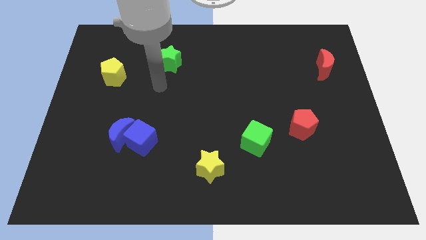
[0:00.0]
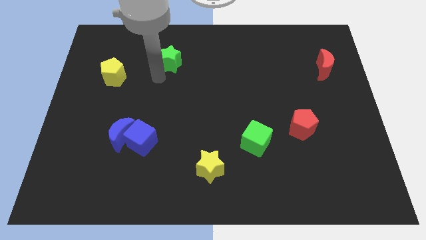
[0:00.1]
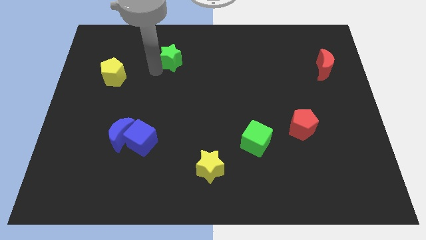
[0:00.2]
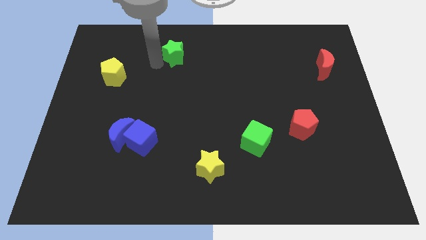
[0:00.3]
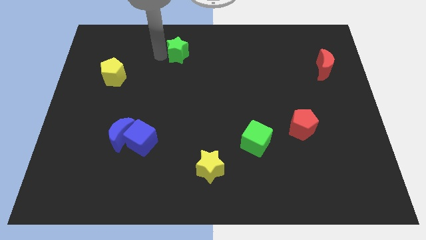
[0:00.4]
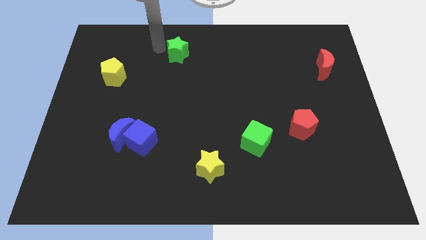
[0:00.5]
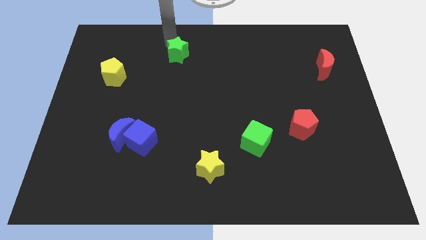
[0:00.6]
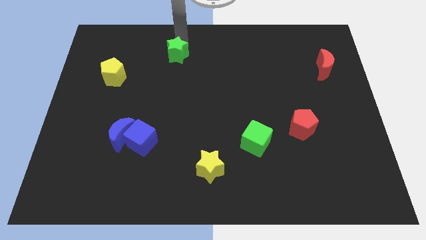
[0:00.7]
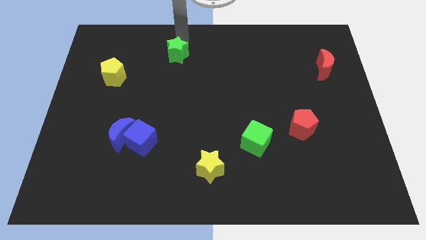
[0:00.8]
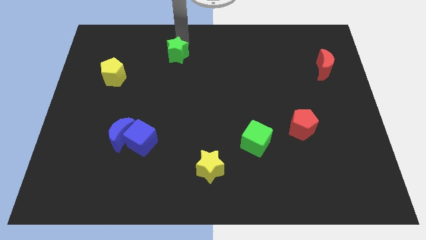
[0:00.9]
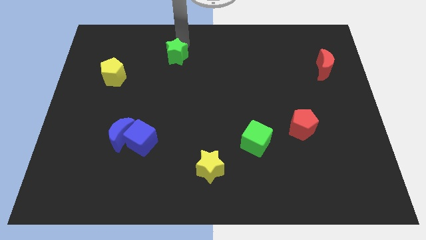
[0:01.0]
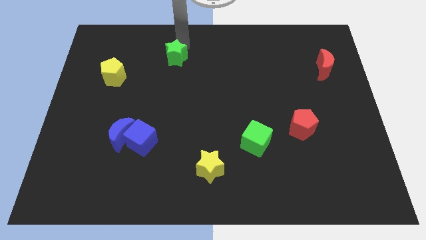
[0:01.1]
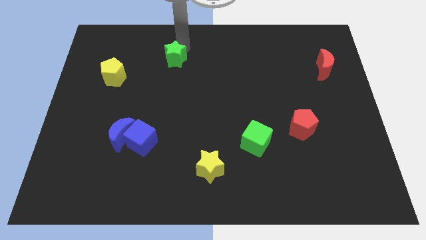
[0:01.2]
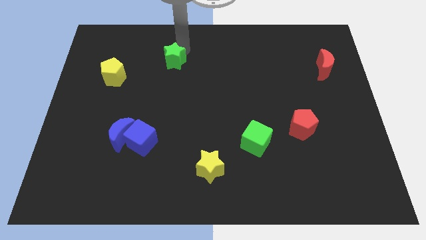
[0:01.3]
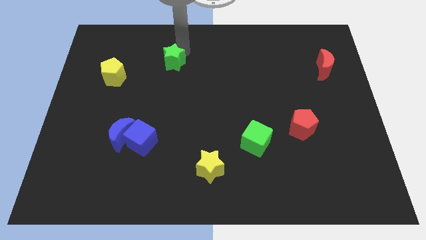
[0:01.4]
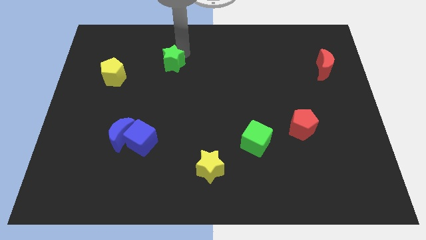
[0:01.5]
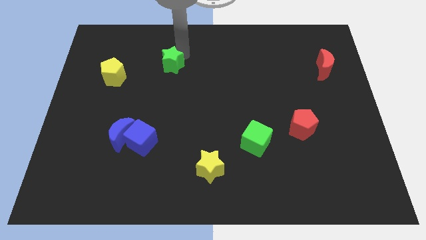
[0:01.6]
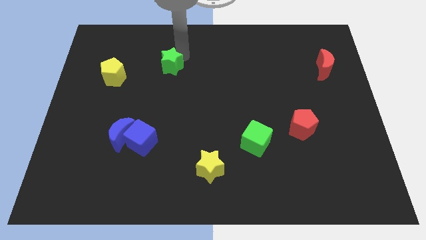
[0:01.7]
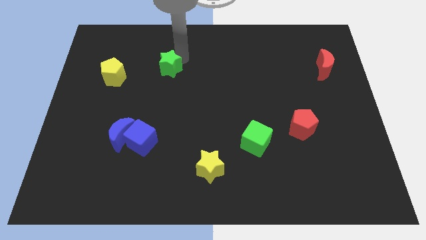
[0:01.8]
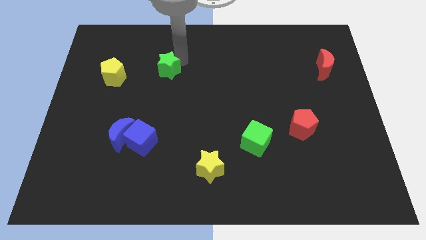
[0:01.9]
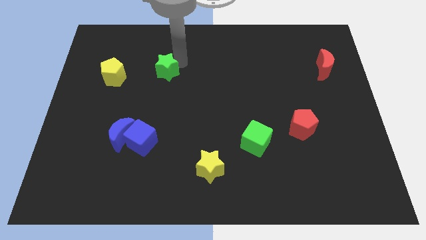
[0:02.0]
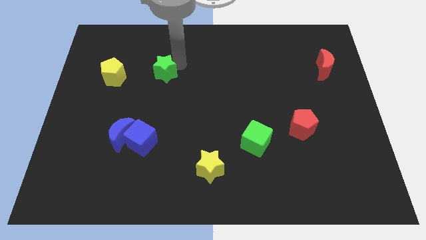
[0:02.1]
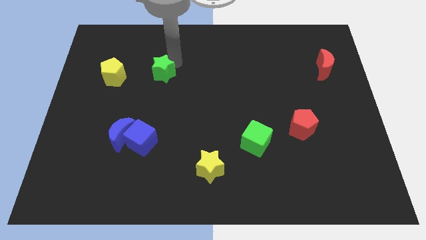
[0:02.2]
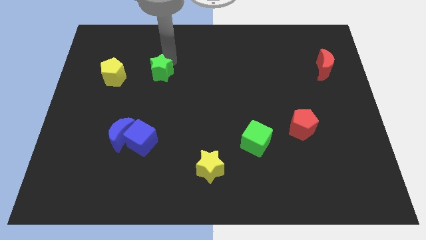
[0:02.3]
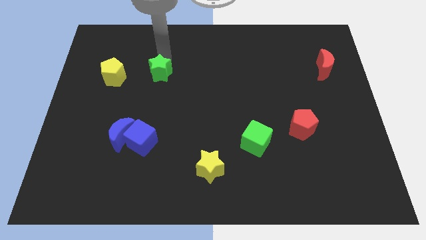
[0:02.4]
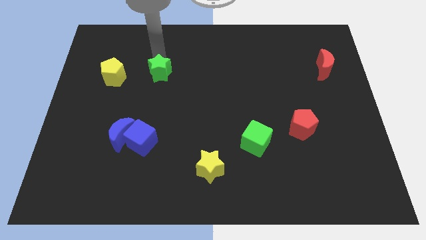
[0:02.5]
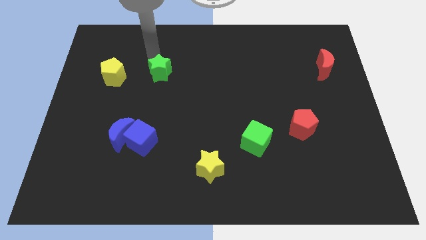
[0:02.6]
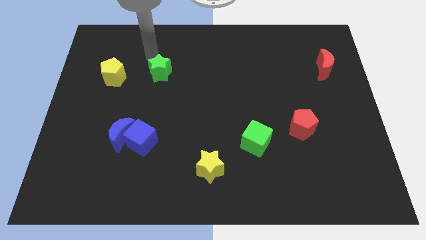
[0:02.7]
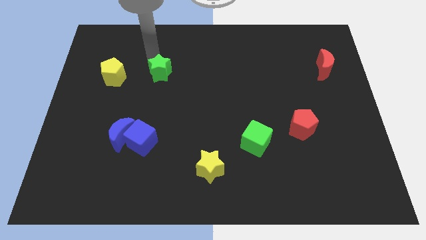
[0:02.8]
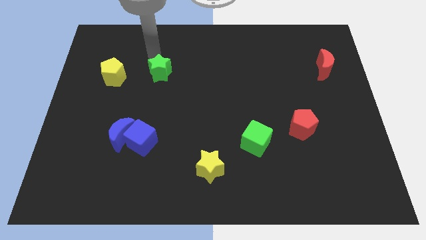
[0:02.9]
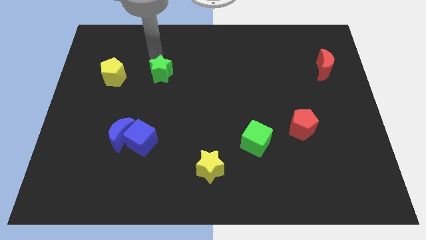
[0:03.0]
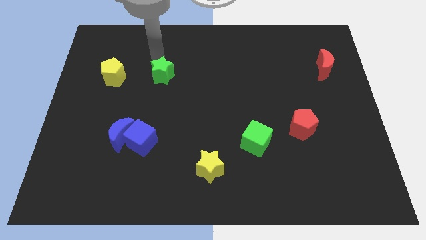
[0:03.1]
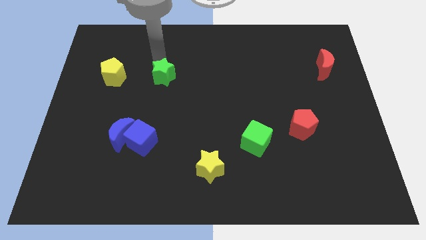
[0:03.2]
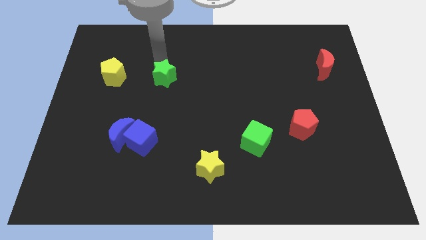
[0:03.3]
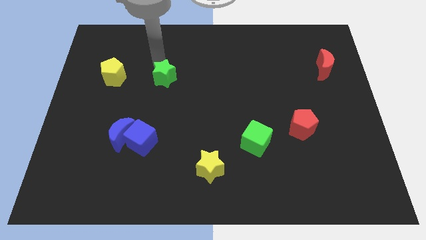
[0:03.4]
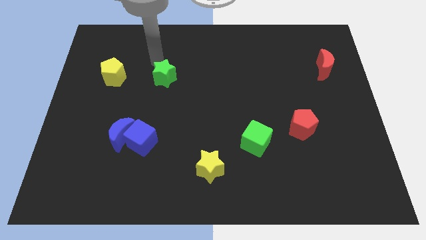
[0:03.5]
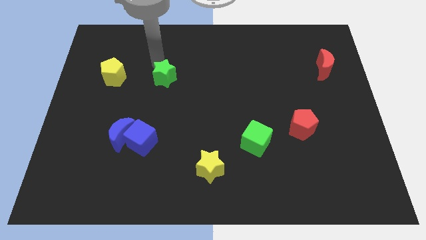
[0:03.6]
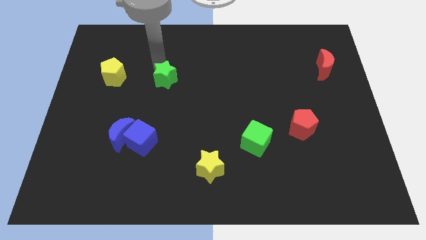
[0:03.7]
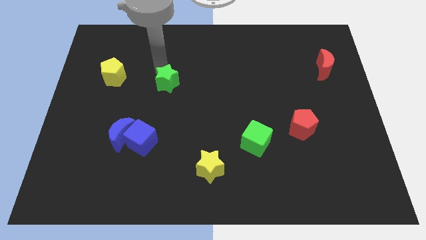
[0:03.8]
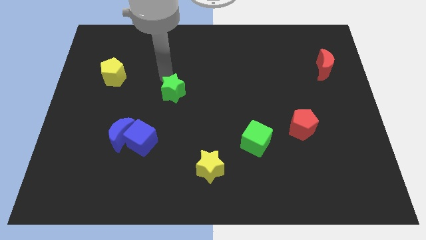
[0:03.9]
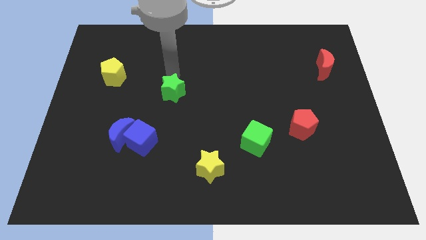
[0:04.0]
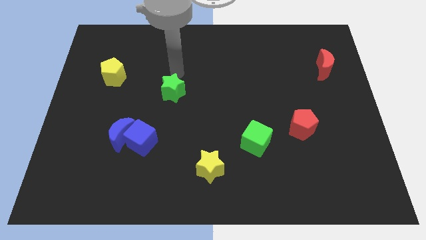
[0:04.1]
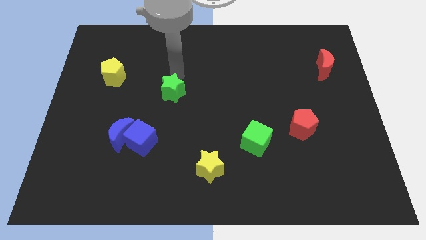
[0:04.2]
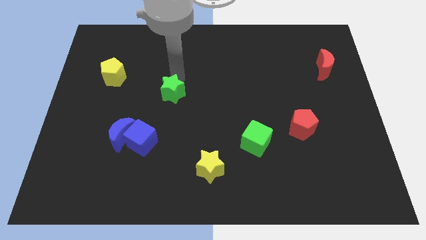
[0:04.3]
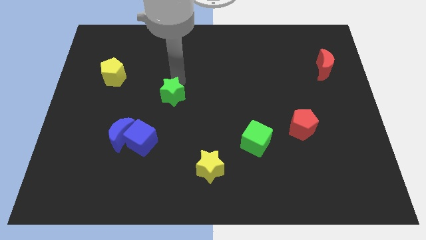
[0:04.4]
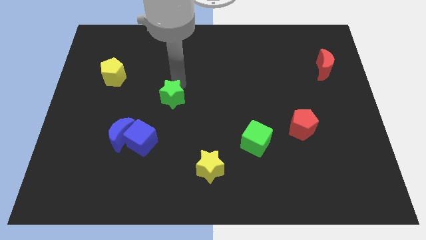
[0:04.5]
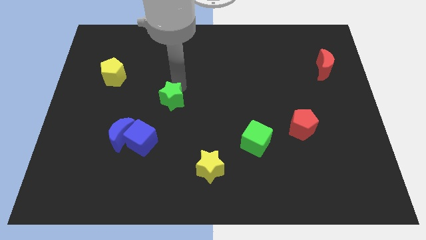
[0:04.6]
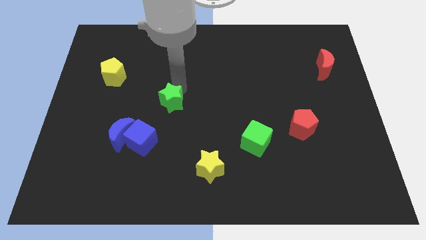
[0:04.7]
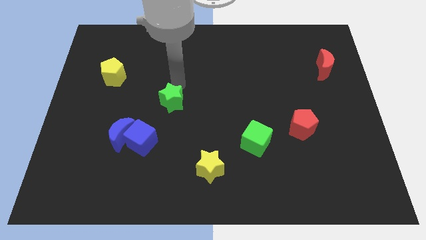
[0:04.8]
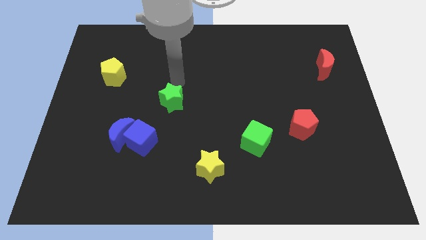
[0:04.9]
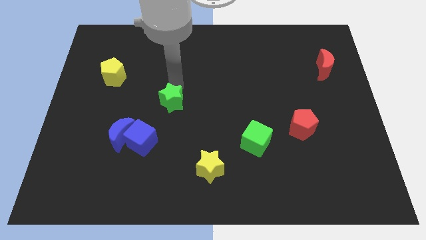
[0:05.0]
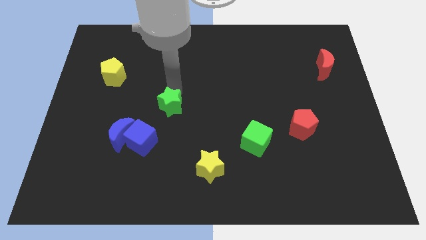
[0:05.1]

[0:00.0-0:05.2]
slide the green star to the top right side of the blue cube

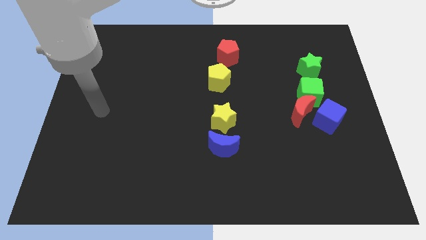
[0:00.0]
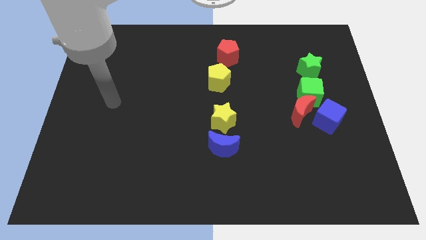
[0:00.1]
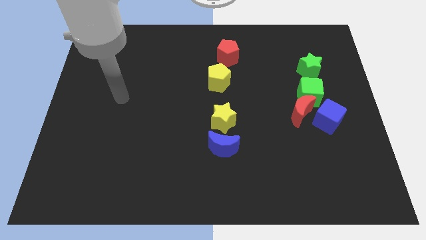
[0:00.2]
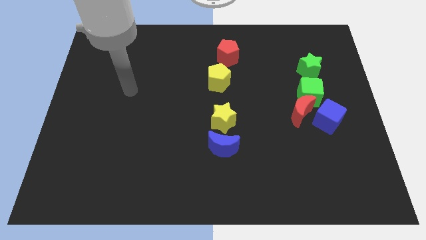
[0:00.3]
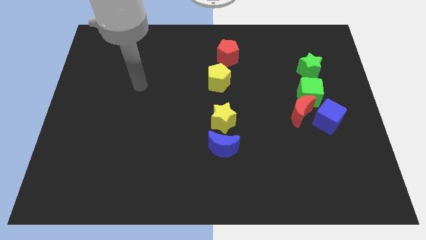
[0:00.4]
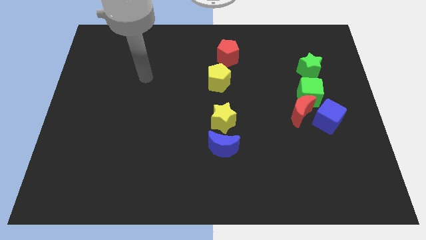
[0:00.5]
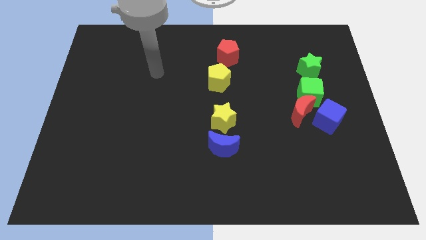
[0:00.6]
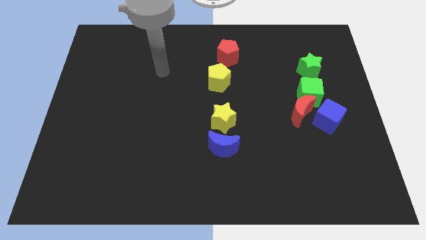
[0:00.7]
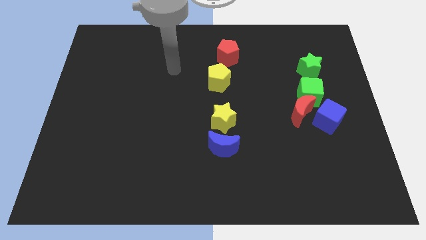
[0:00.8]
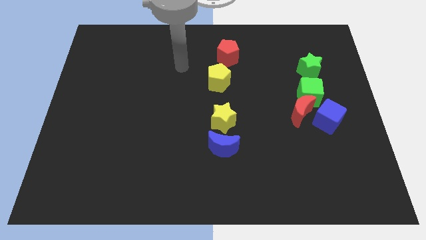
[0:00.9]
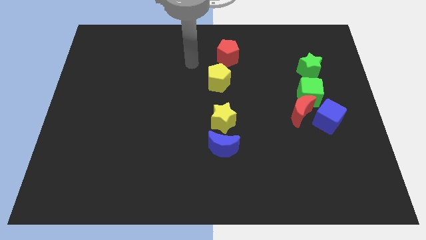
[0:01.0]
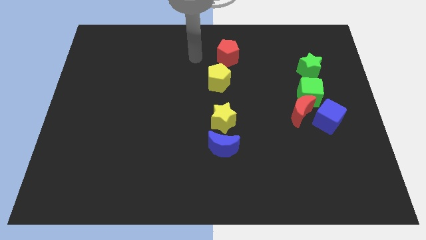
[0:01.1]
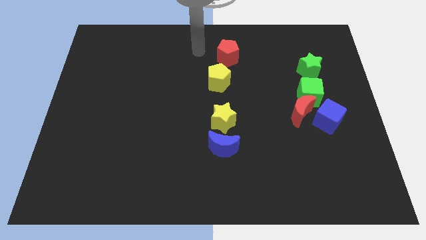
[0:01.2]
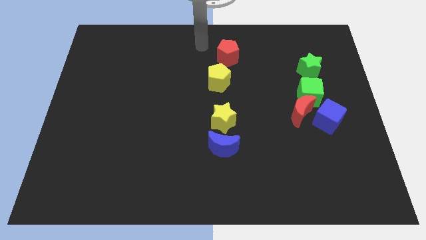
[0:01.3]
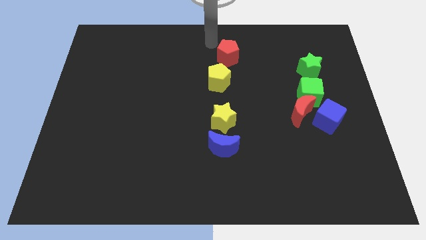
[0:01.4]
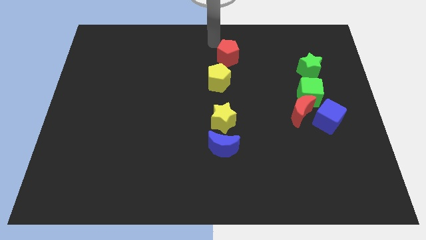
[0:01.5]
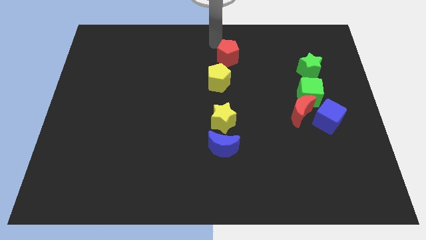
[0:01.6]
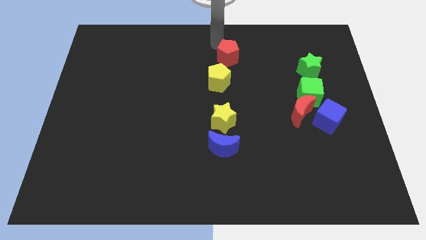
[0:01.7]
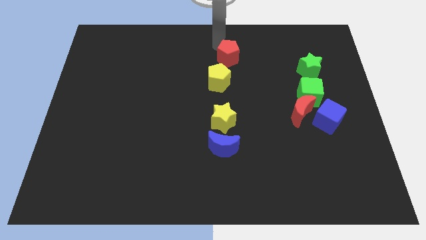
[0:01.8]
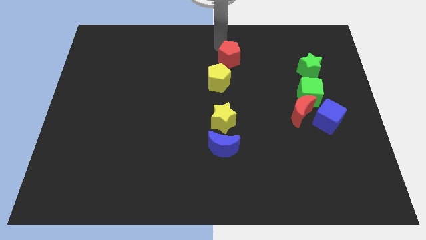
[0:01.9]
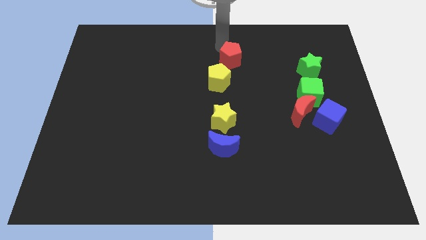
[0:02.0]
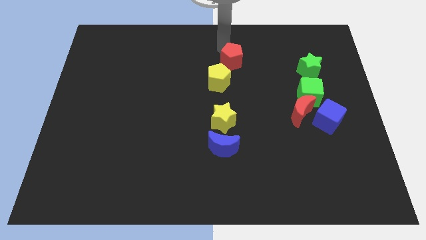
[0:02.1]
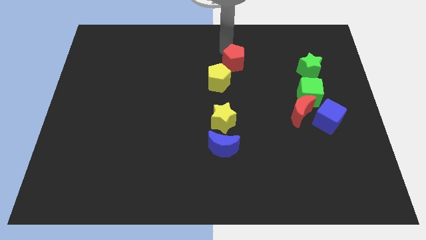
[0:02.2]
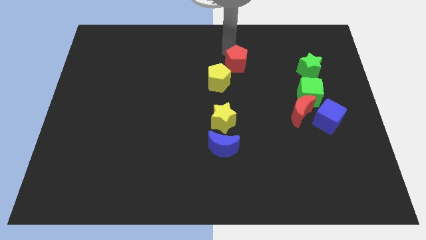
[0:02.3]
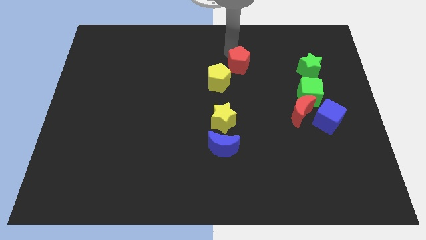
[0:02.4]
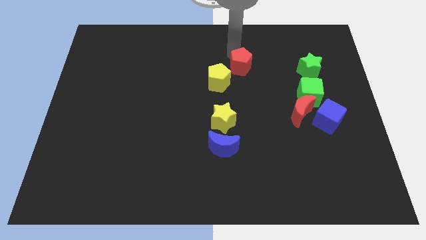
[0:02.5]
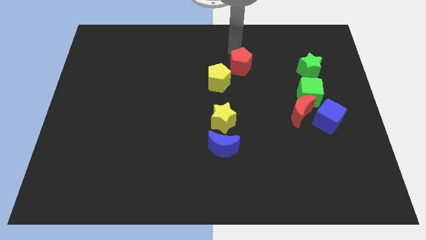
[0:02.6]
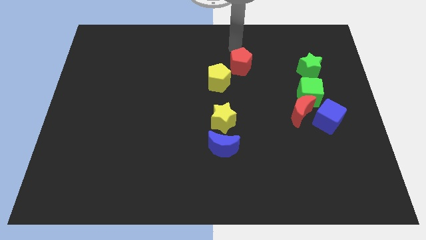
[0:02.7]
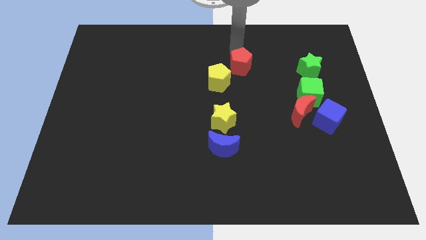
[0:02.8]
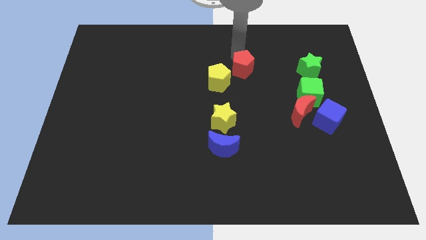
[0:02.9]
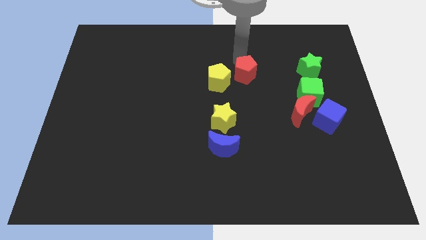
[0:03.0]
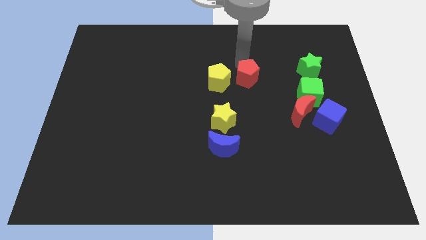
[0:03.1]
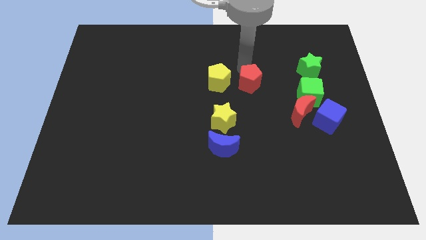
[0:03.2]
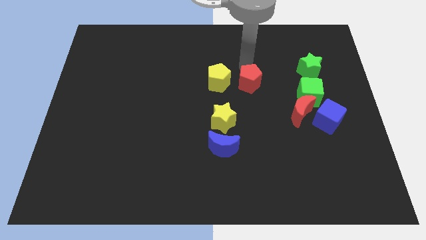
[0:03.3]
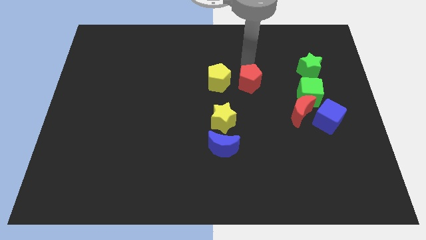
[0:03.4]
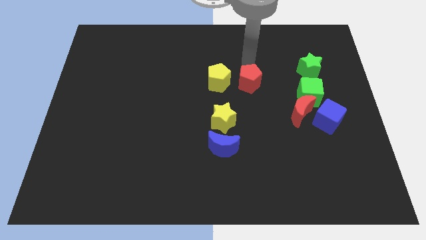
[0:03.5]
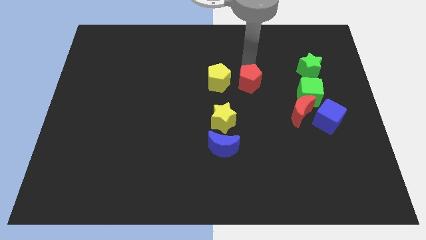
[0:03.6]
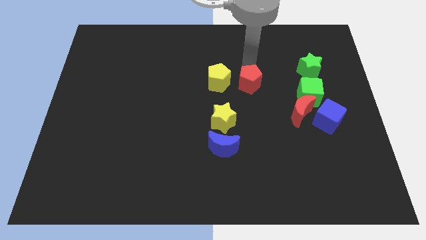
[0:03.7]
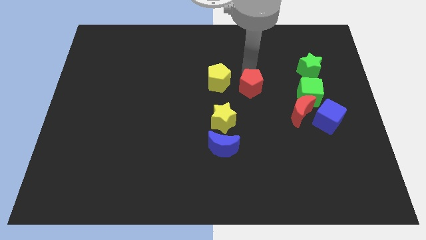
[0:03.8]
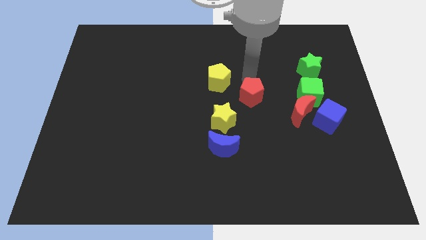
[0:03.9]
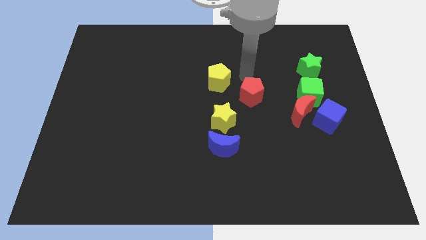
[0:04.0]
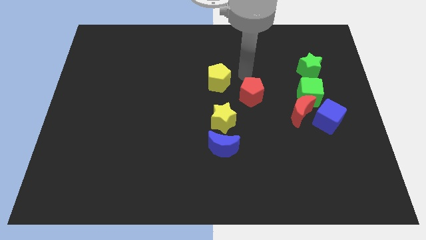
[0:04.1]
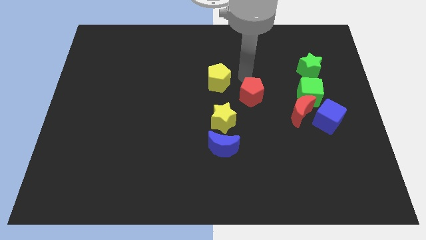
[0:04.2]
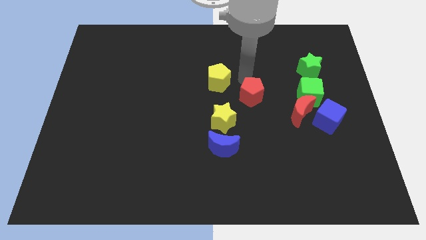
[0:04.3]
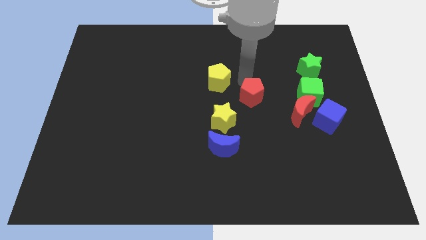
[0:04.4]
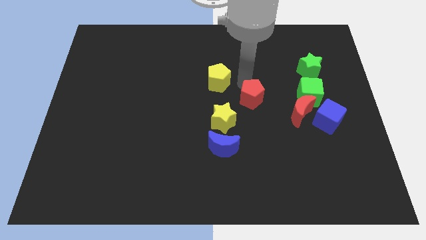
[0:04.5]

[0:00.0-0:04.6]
put the red pentagon to the left of the red moon
